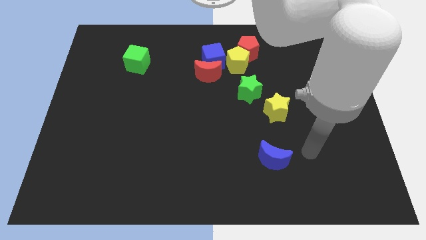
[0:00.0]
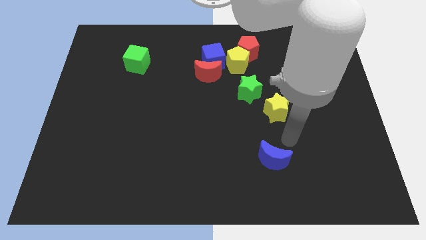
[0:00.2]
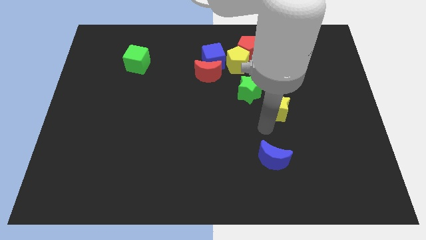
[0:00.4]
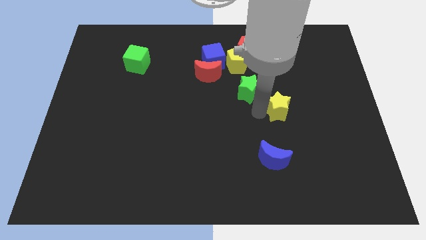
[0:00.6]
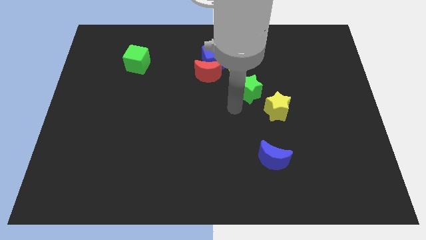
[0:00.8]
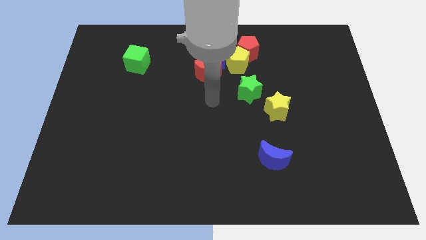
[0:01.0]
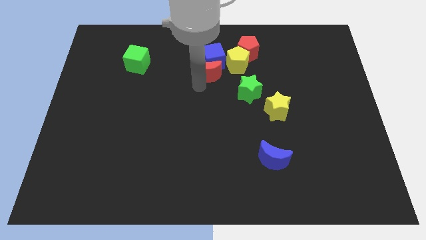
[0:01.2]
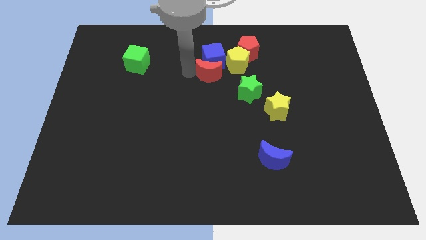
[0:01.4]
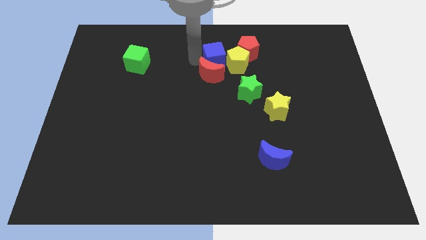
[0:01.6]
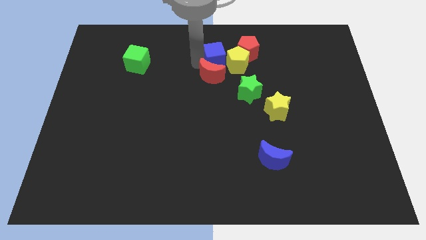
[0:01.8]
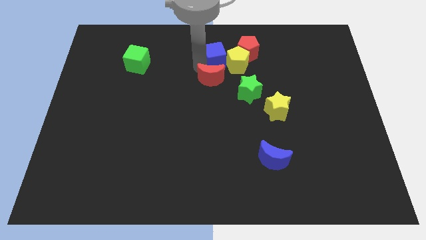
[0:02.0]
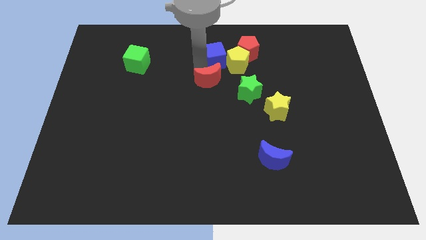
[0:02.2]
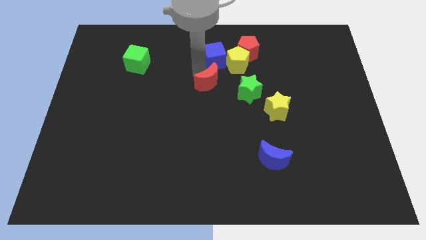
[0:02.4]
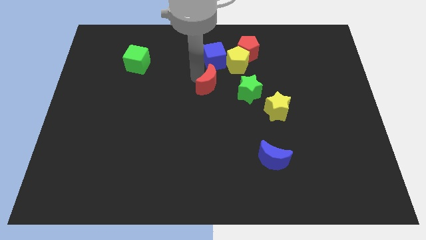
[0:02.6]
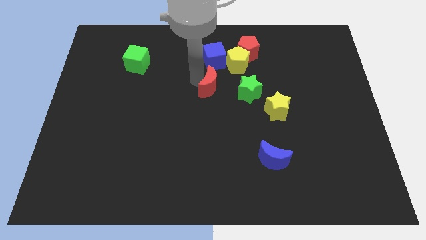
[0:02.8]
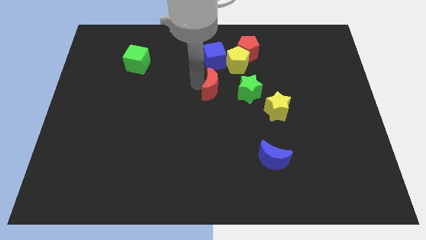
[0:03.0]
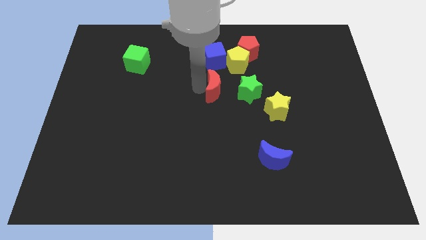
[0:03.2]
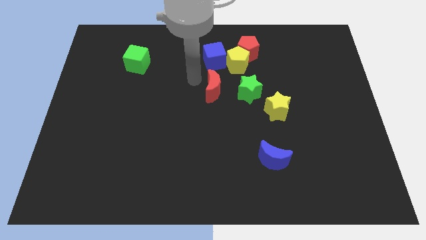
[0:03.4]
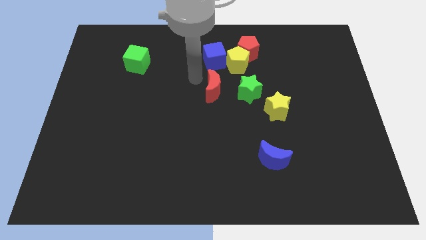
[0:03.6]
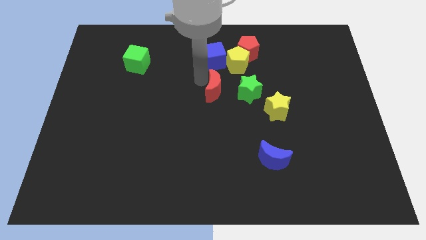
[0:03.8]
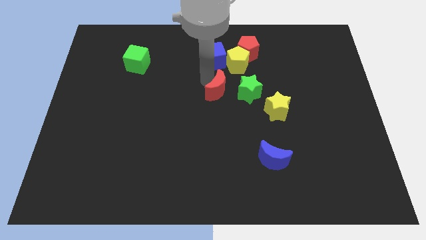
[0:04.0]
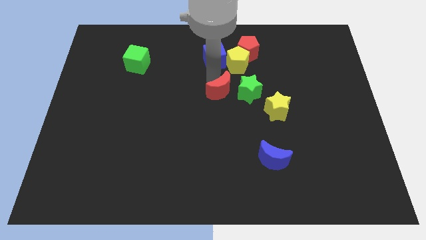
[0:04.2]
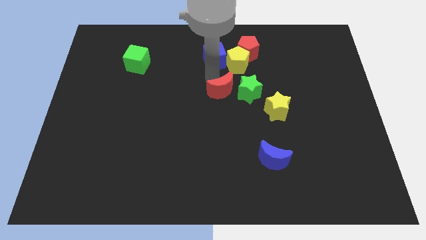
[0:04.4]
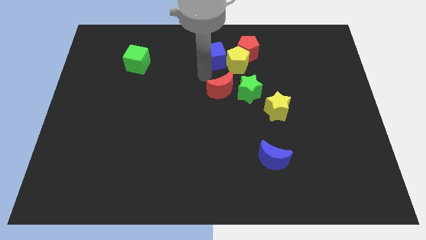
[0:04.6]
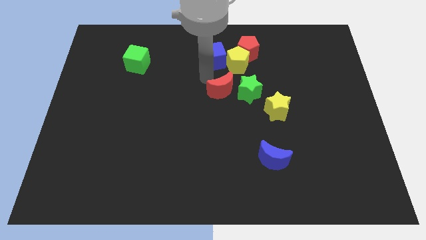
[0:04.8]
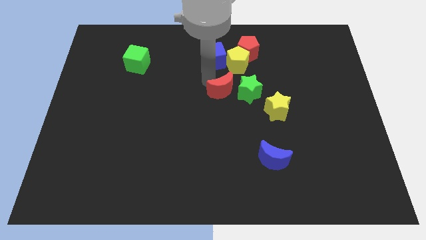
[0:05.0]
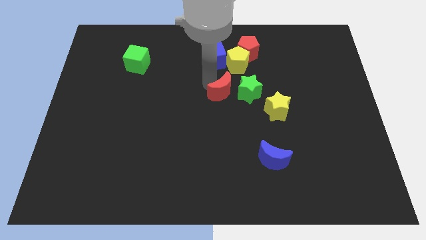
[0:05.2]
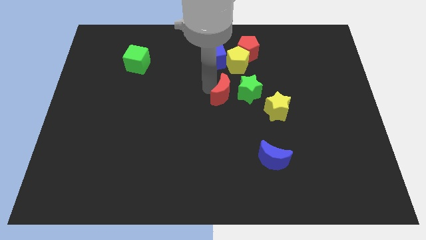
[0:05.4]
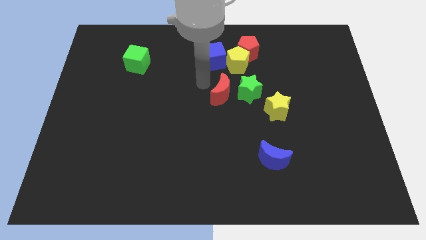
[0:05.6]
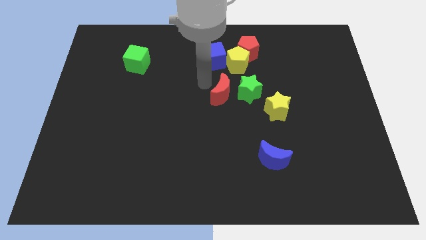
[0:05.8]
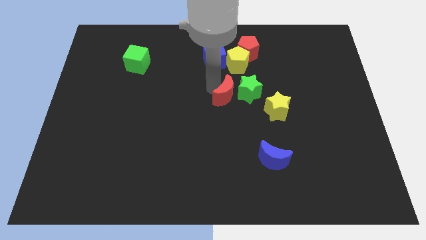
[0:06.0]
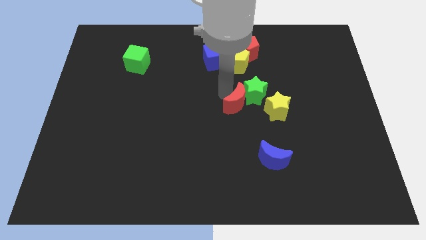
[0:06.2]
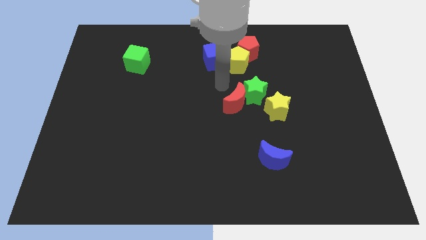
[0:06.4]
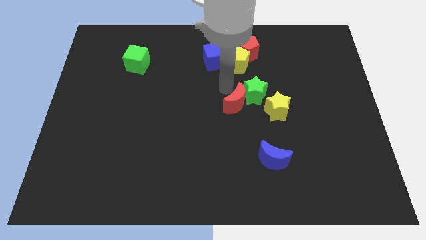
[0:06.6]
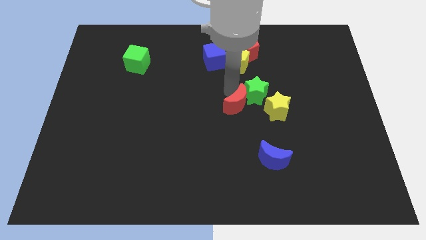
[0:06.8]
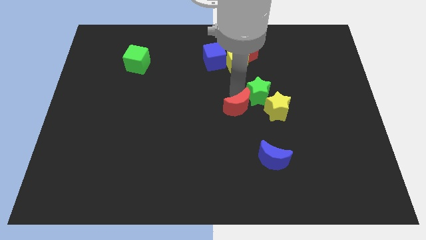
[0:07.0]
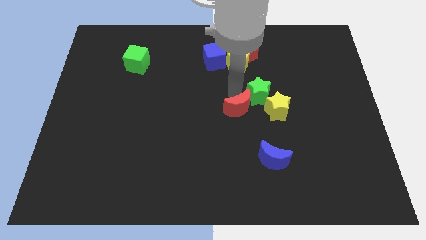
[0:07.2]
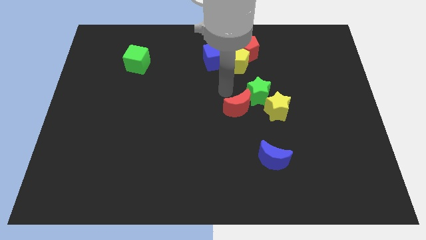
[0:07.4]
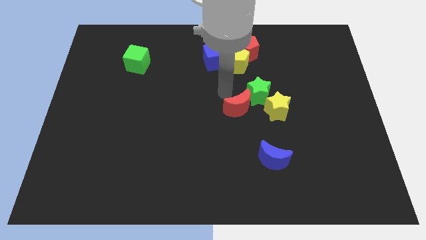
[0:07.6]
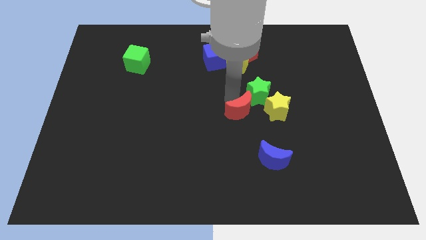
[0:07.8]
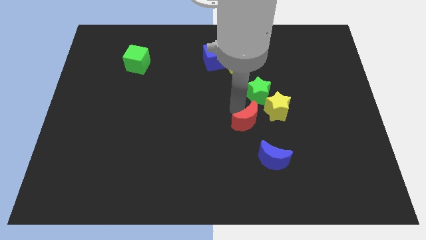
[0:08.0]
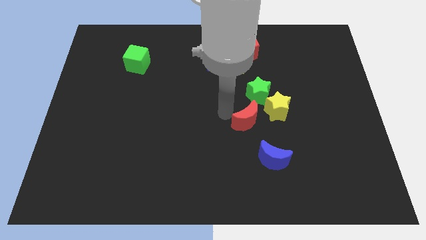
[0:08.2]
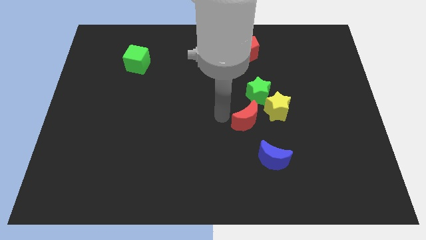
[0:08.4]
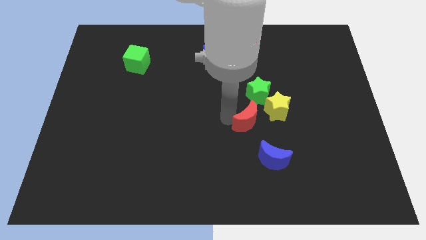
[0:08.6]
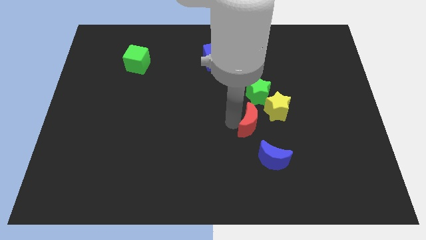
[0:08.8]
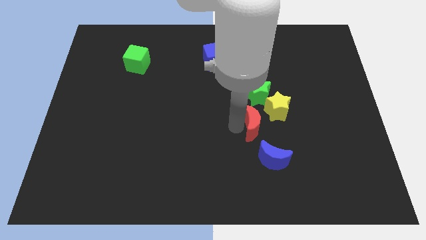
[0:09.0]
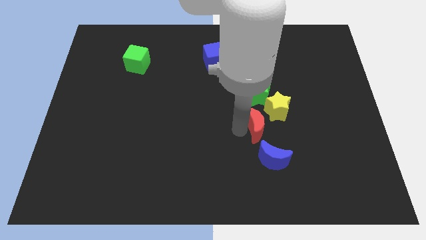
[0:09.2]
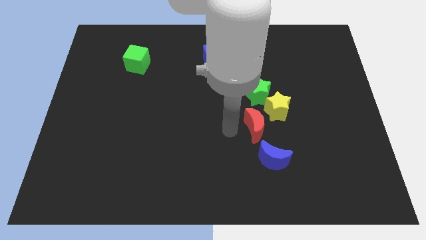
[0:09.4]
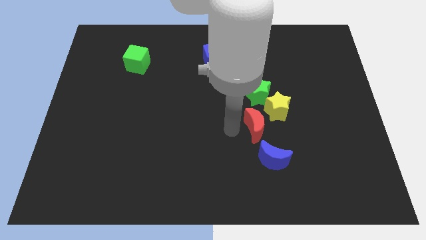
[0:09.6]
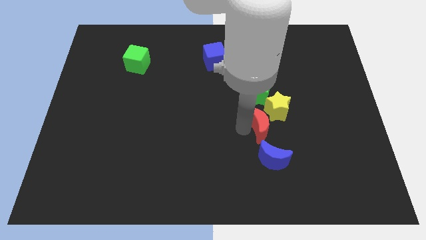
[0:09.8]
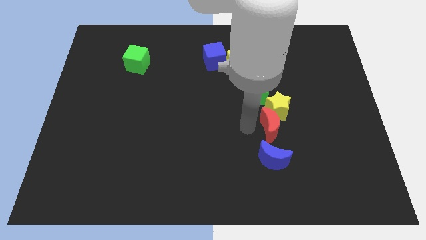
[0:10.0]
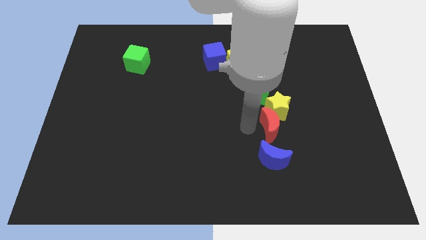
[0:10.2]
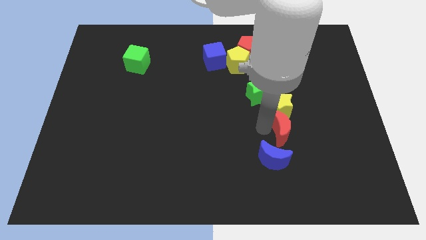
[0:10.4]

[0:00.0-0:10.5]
put the red moon to the bottom right side of the yellow star

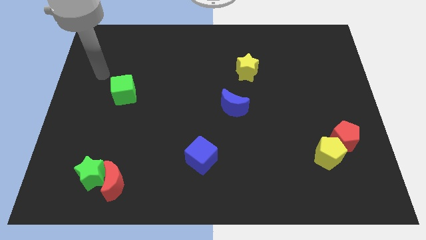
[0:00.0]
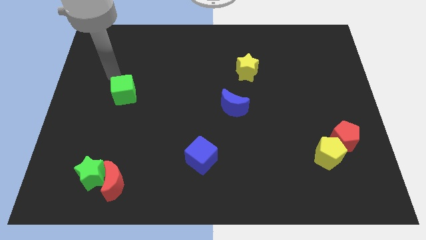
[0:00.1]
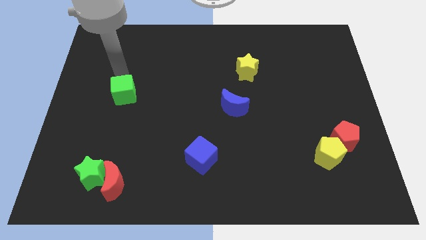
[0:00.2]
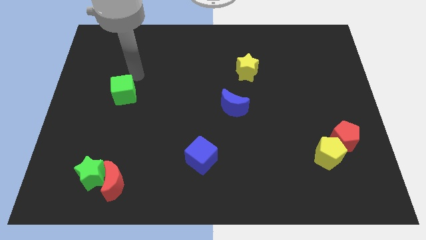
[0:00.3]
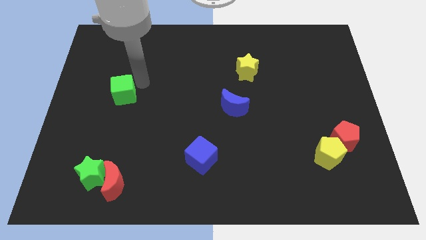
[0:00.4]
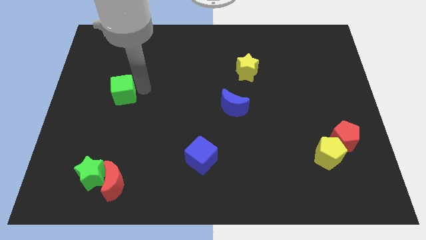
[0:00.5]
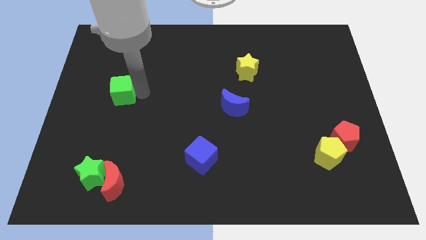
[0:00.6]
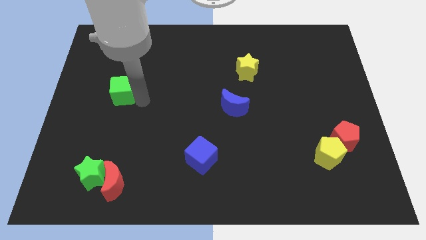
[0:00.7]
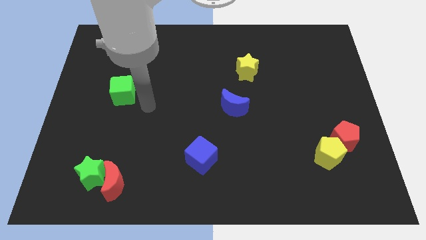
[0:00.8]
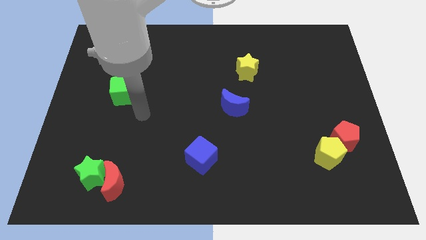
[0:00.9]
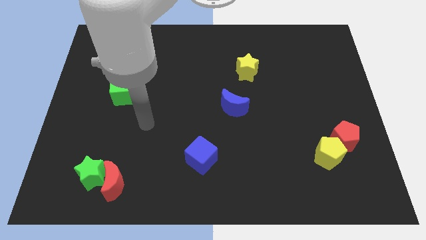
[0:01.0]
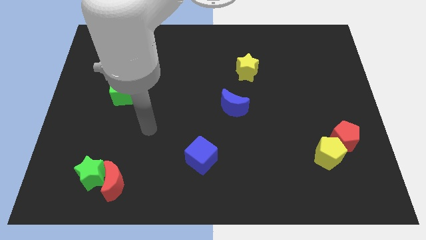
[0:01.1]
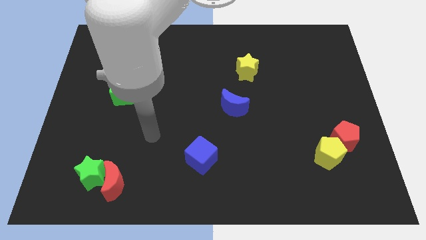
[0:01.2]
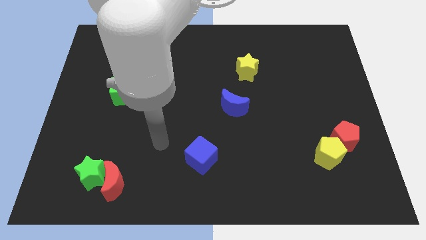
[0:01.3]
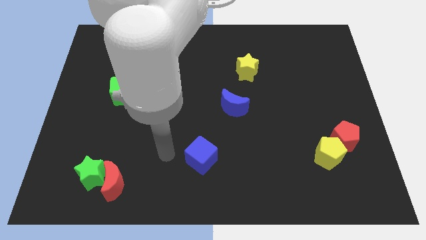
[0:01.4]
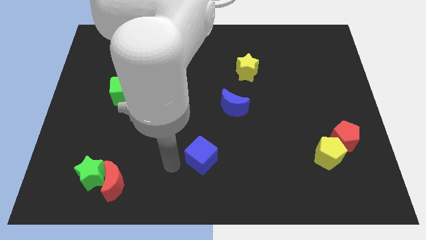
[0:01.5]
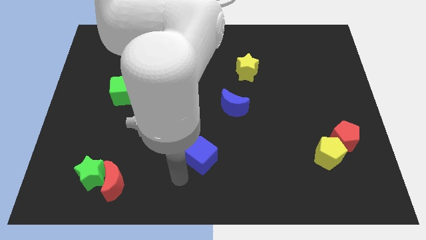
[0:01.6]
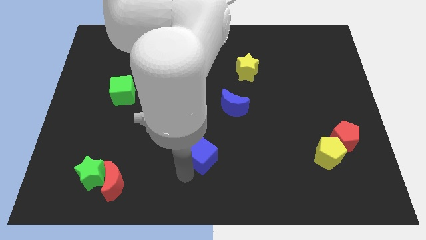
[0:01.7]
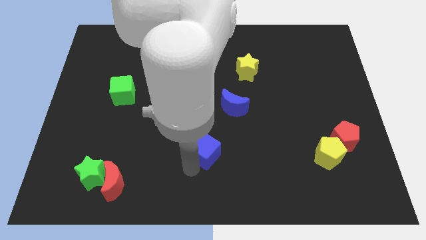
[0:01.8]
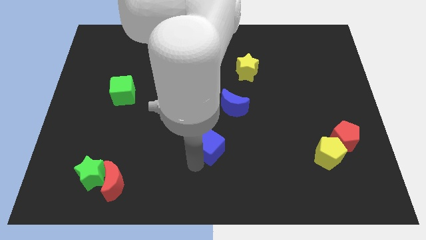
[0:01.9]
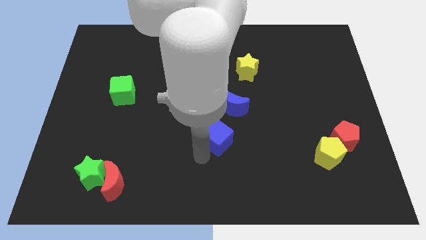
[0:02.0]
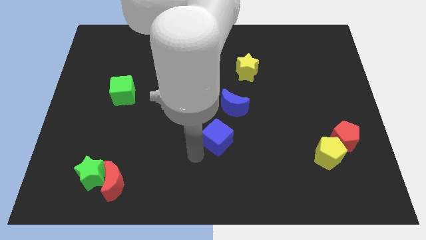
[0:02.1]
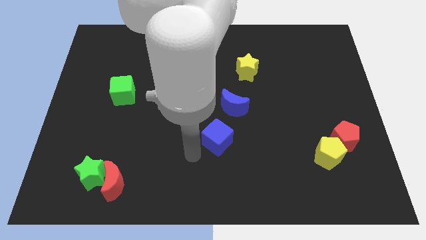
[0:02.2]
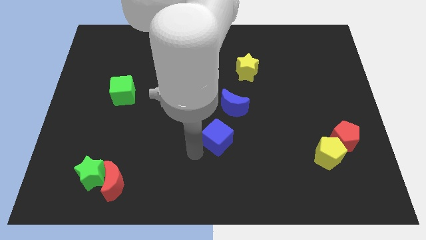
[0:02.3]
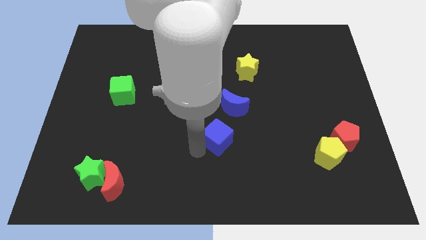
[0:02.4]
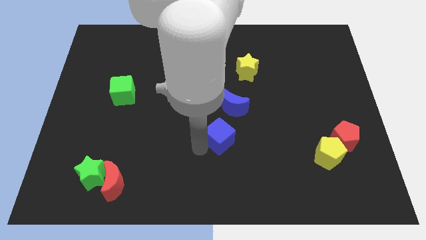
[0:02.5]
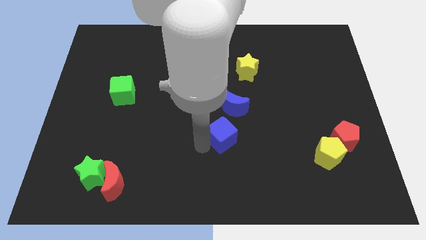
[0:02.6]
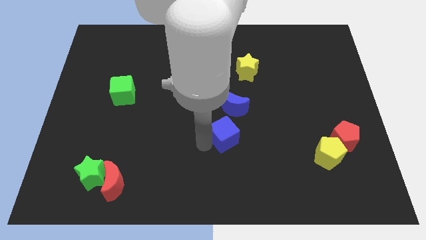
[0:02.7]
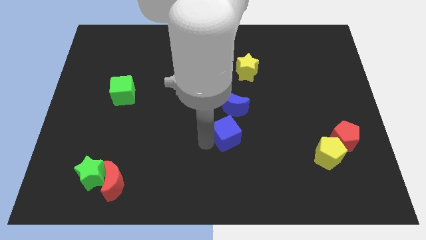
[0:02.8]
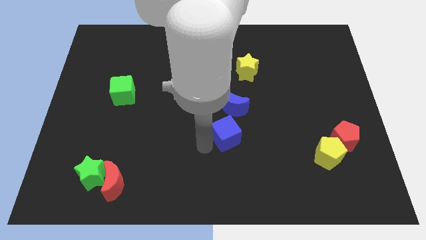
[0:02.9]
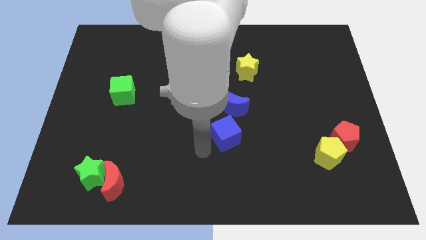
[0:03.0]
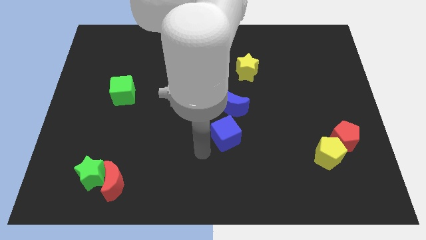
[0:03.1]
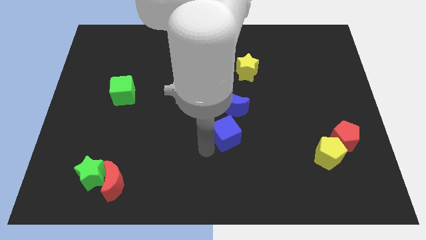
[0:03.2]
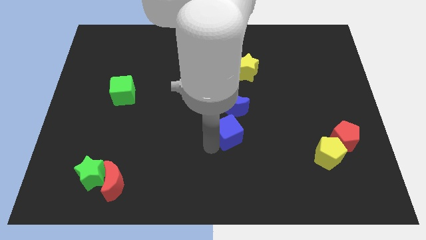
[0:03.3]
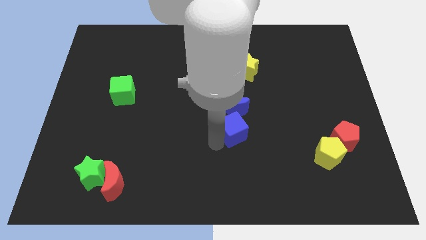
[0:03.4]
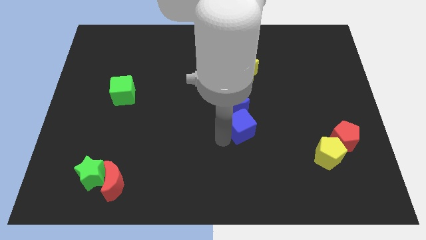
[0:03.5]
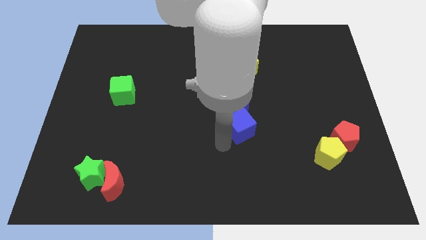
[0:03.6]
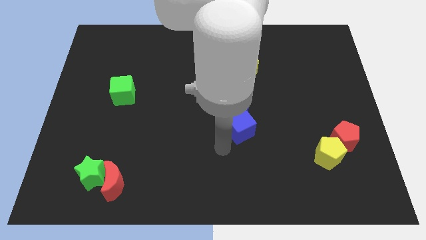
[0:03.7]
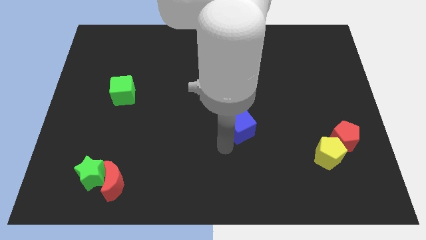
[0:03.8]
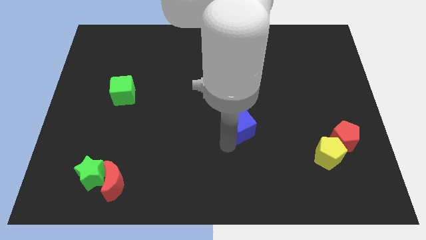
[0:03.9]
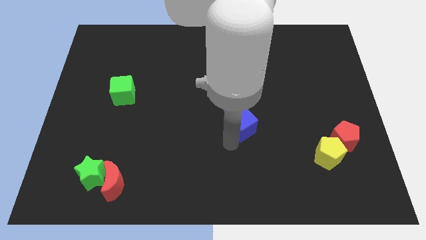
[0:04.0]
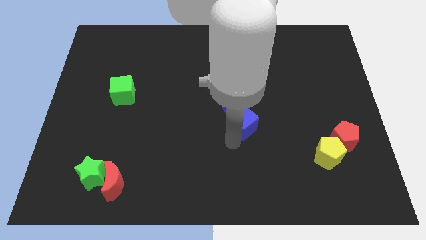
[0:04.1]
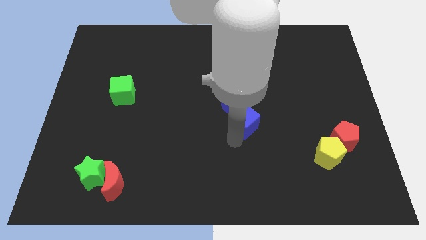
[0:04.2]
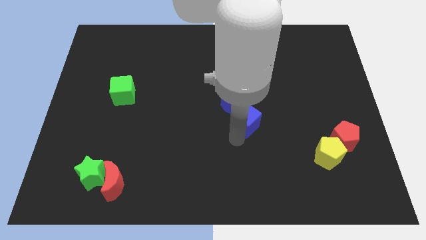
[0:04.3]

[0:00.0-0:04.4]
move the blue cube to the bottom of the yellow star
